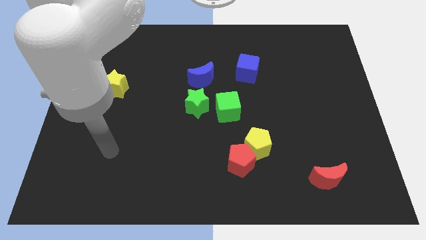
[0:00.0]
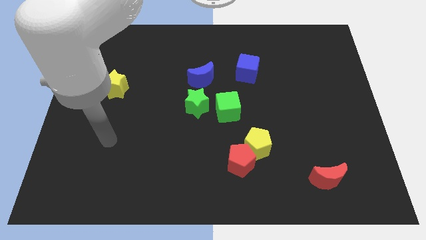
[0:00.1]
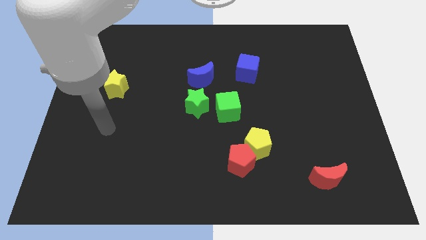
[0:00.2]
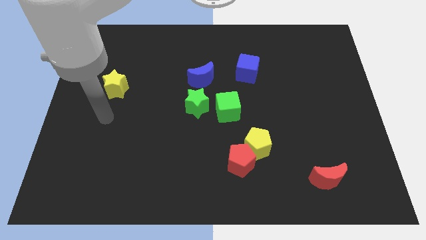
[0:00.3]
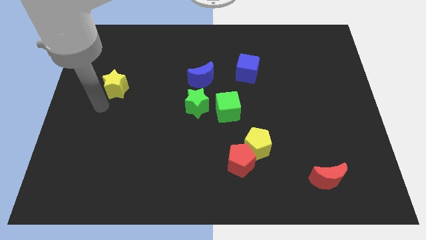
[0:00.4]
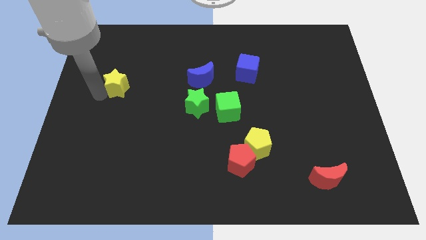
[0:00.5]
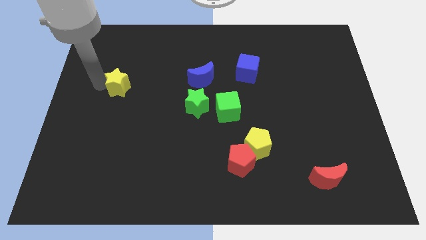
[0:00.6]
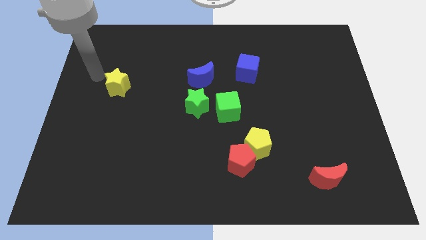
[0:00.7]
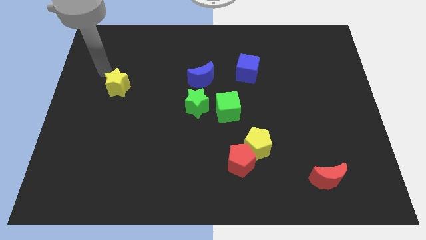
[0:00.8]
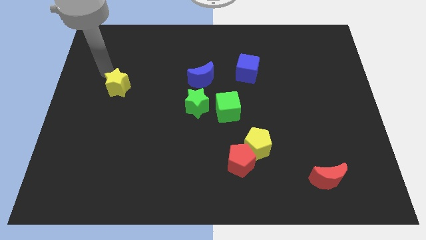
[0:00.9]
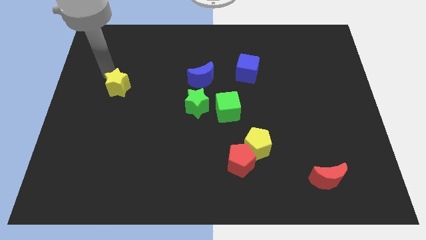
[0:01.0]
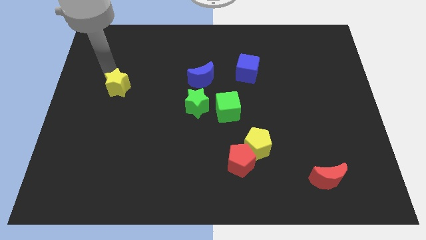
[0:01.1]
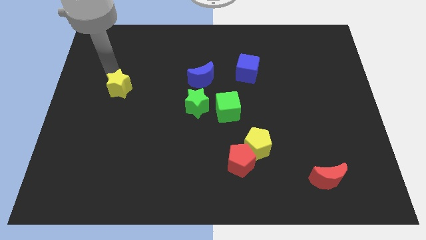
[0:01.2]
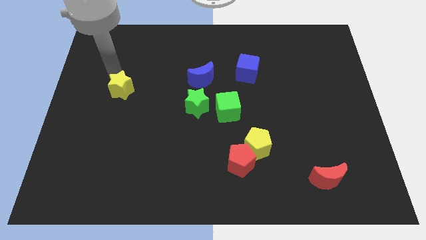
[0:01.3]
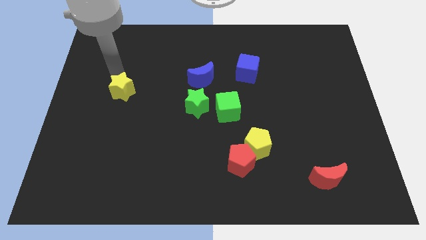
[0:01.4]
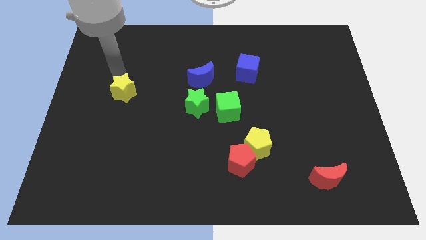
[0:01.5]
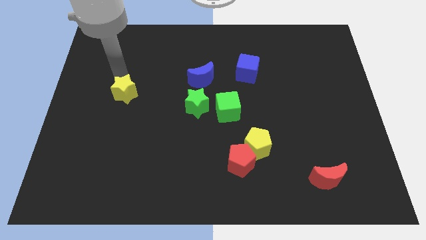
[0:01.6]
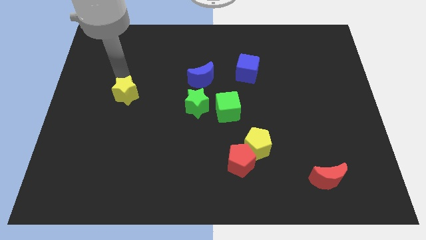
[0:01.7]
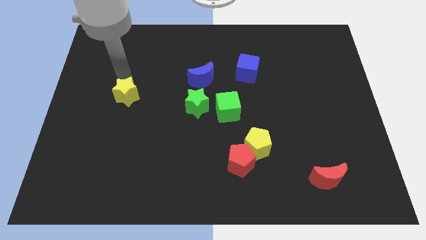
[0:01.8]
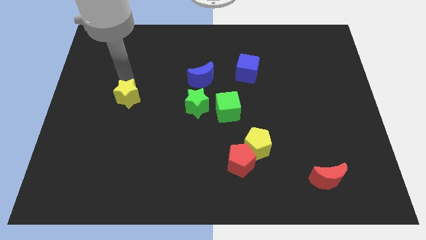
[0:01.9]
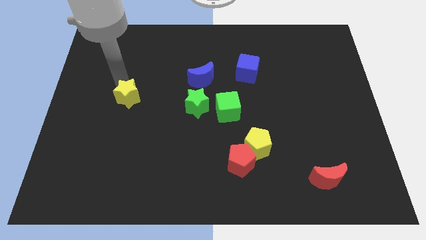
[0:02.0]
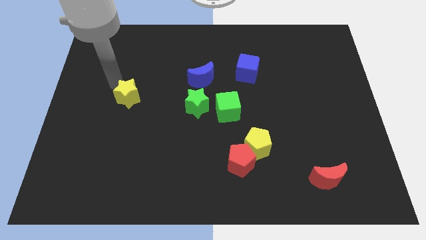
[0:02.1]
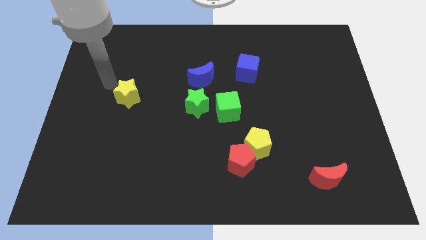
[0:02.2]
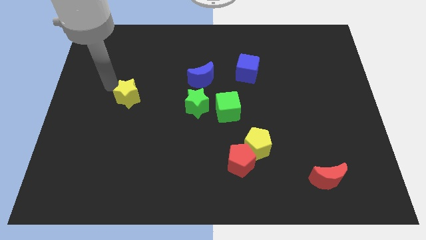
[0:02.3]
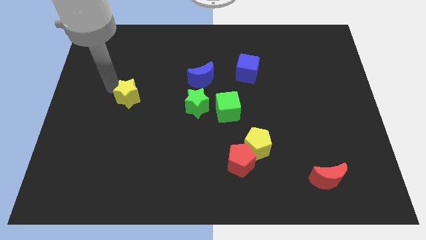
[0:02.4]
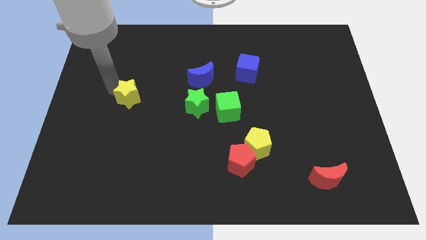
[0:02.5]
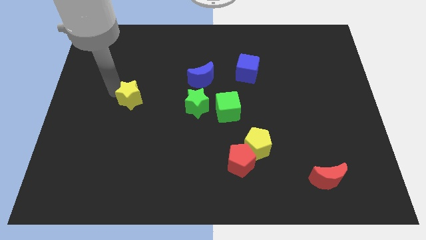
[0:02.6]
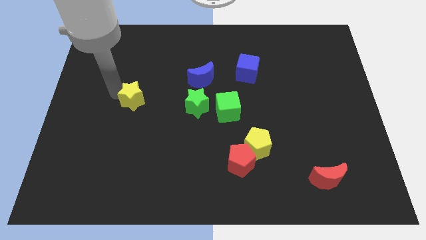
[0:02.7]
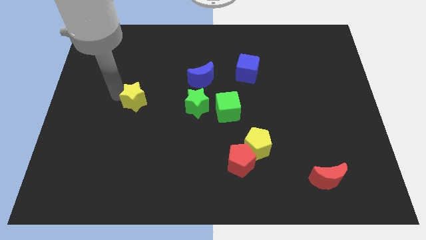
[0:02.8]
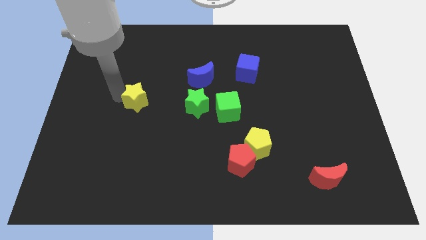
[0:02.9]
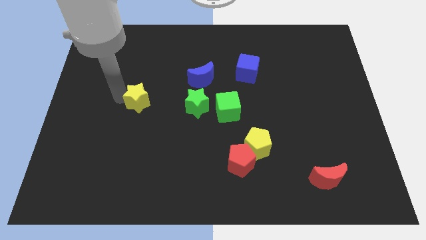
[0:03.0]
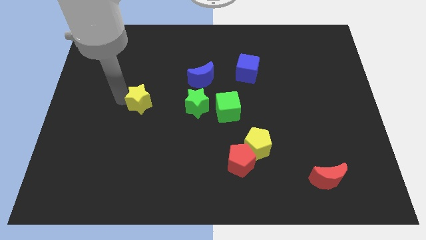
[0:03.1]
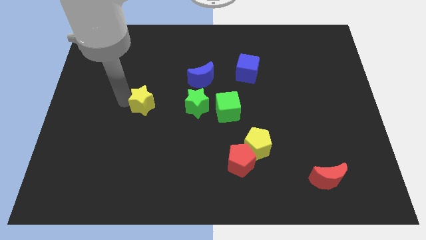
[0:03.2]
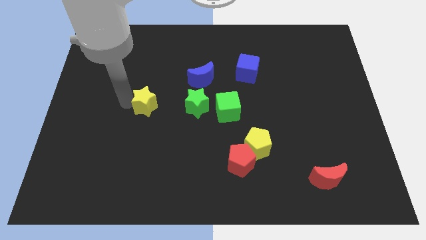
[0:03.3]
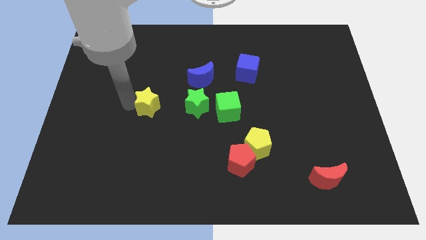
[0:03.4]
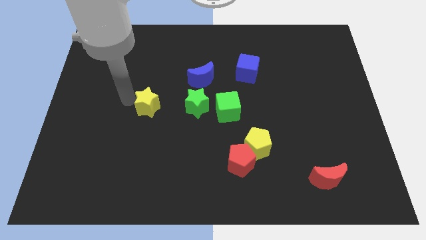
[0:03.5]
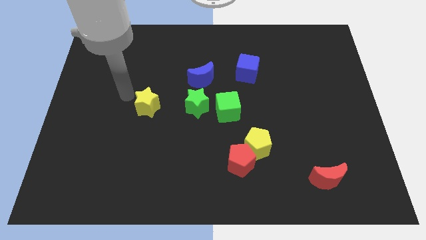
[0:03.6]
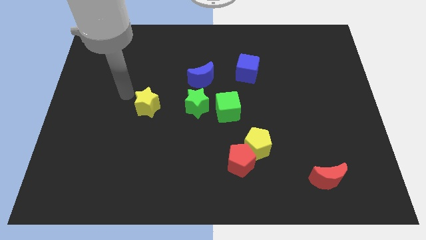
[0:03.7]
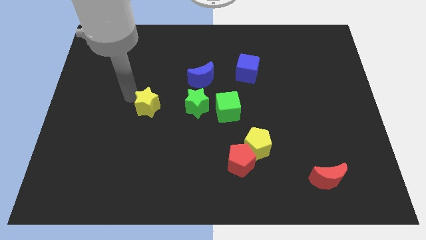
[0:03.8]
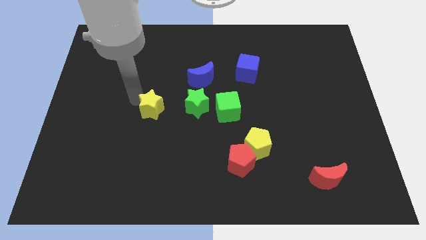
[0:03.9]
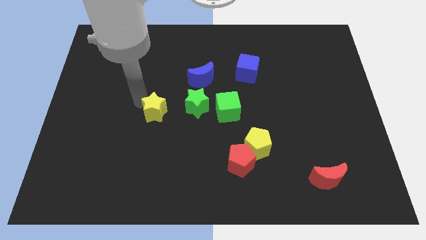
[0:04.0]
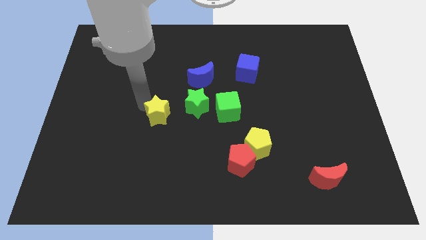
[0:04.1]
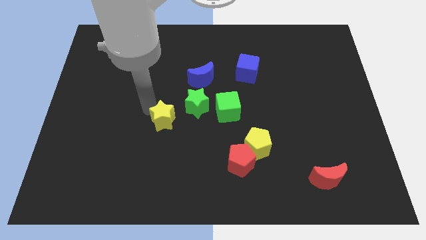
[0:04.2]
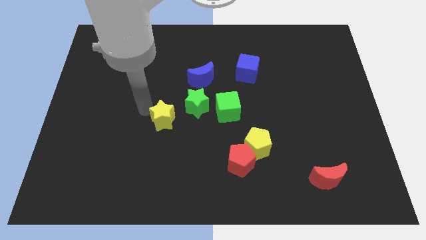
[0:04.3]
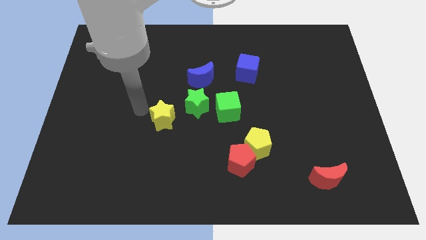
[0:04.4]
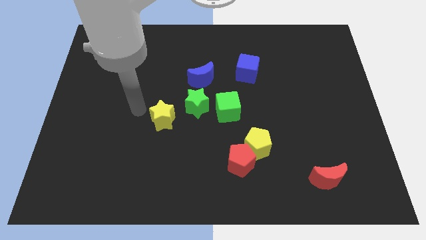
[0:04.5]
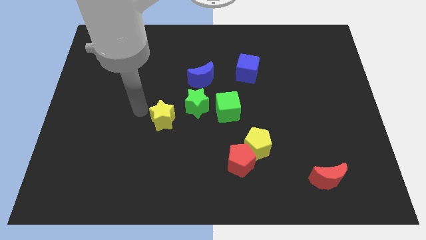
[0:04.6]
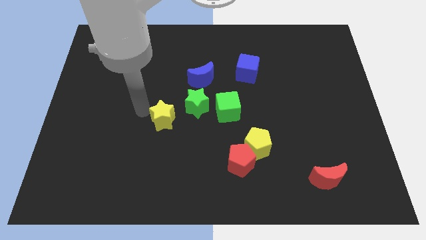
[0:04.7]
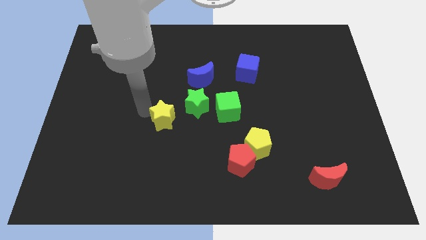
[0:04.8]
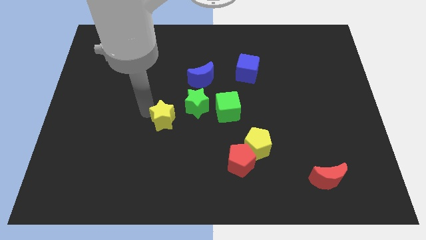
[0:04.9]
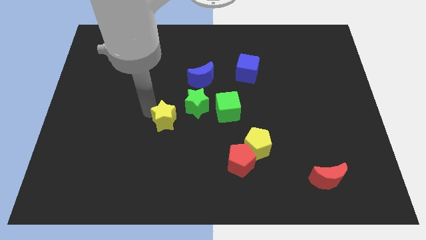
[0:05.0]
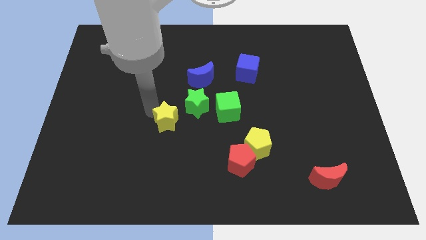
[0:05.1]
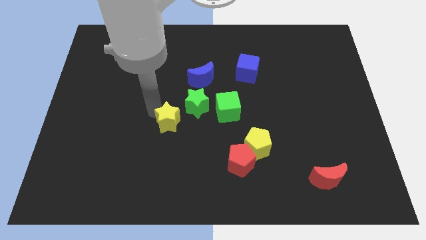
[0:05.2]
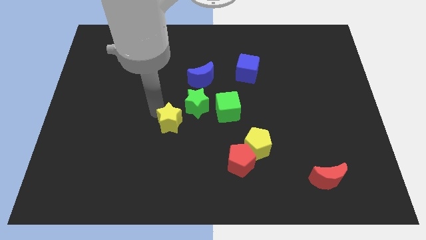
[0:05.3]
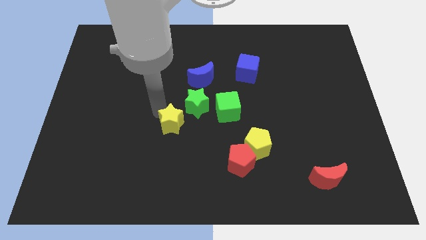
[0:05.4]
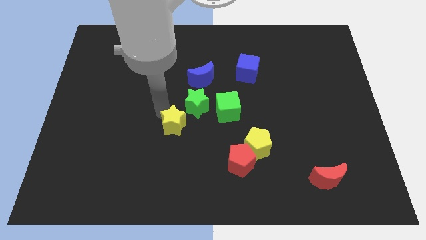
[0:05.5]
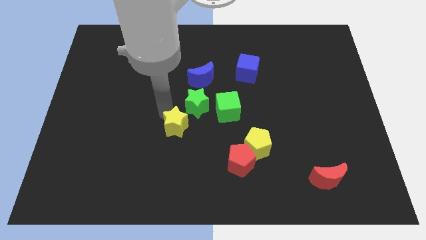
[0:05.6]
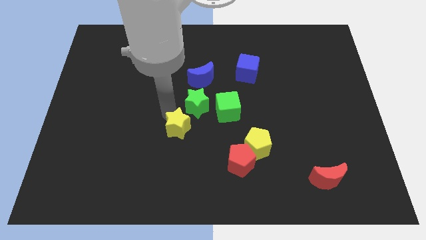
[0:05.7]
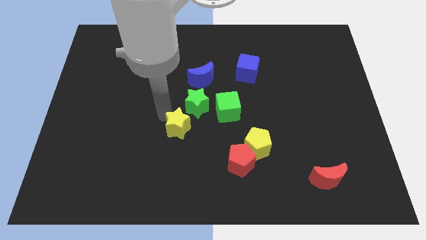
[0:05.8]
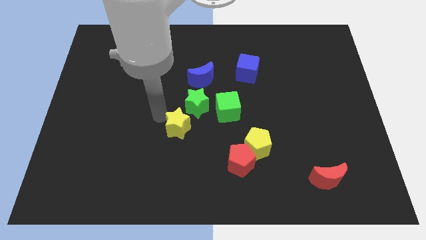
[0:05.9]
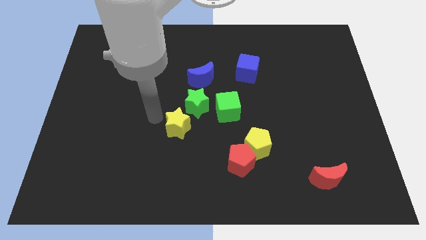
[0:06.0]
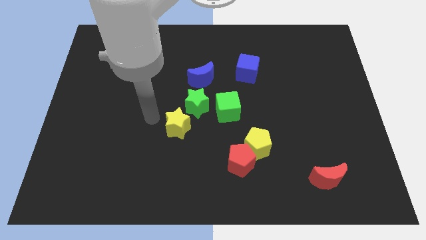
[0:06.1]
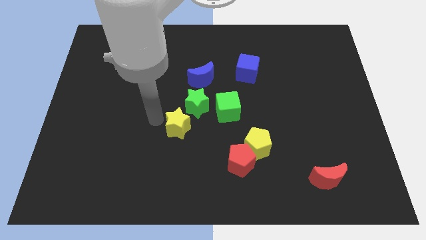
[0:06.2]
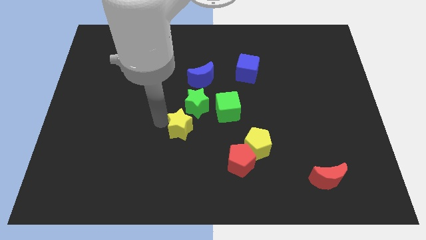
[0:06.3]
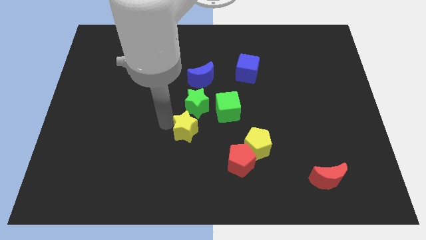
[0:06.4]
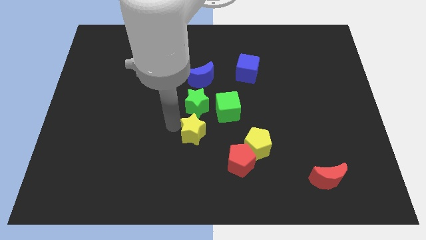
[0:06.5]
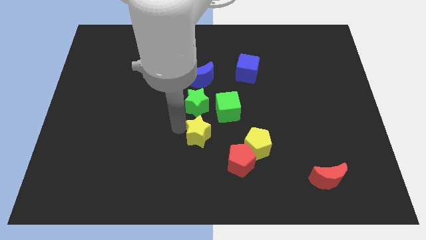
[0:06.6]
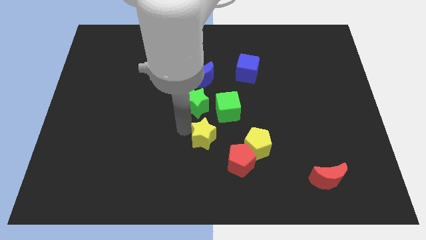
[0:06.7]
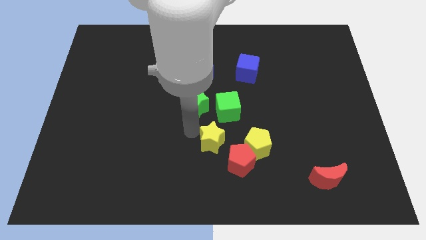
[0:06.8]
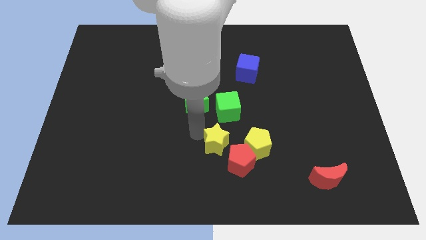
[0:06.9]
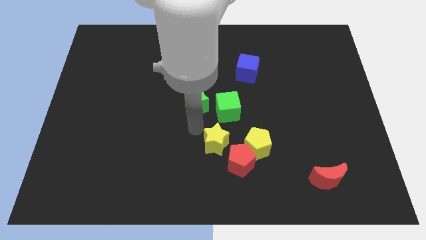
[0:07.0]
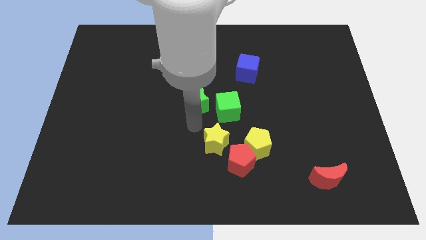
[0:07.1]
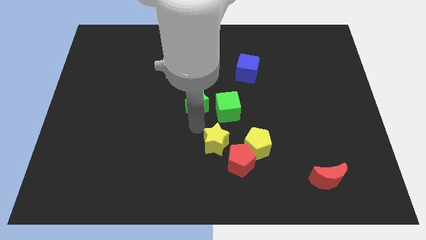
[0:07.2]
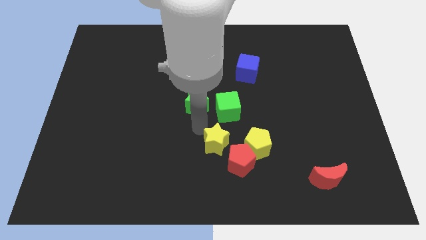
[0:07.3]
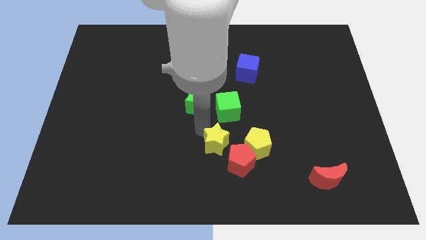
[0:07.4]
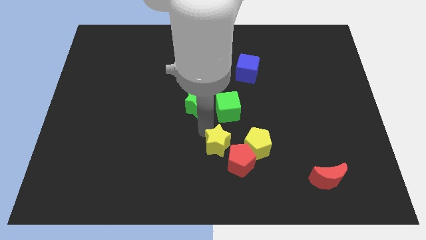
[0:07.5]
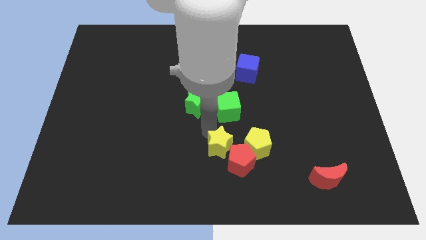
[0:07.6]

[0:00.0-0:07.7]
move the yellow star to the red pentagon
